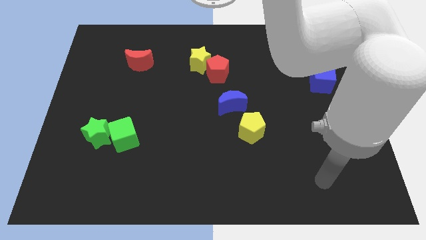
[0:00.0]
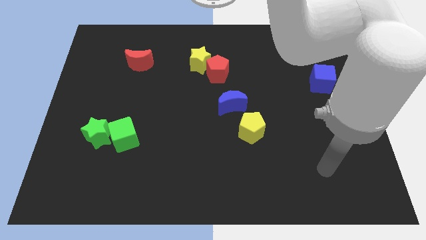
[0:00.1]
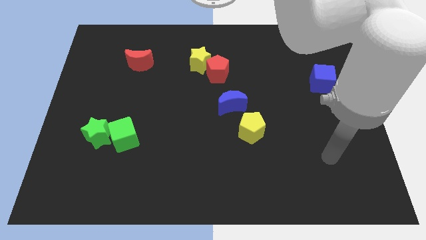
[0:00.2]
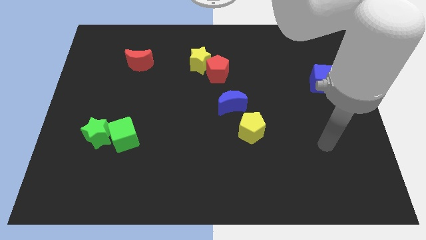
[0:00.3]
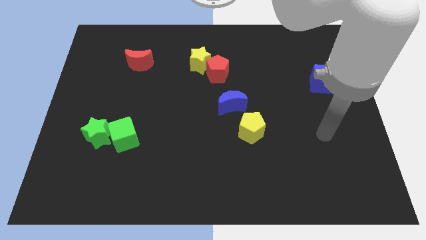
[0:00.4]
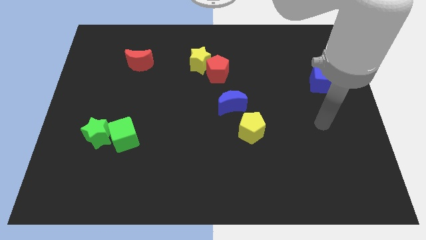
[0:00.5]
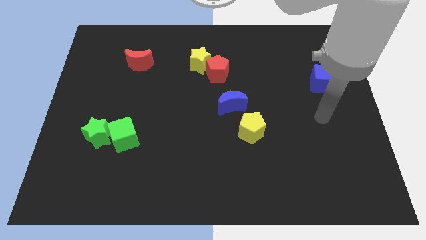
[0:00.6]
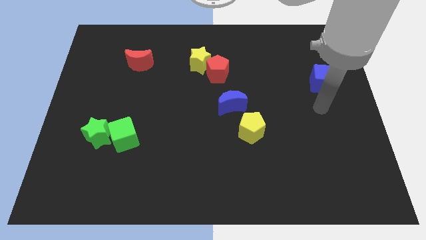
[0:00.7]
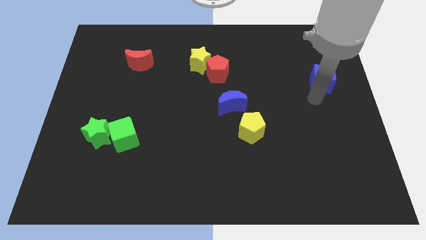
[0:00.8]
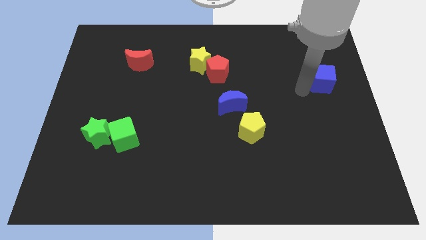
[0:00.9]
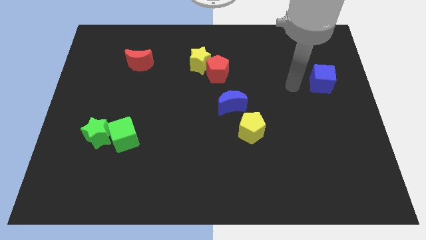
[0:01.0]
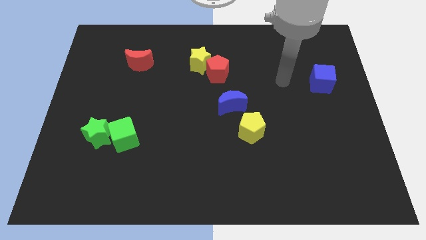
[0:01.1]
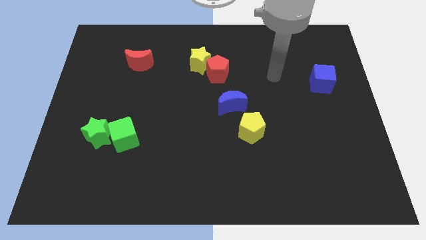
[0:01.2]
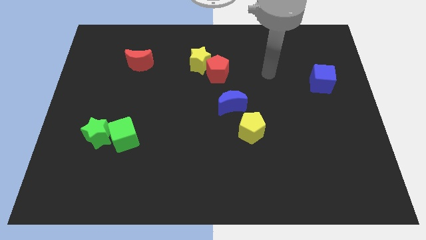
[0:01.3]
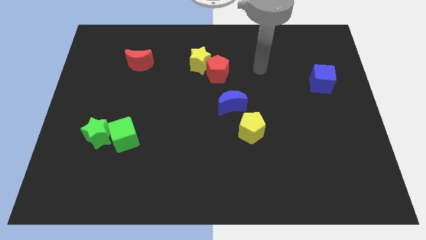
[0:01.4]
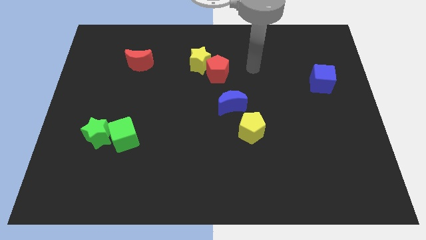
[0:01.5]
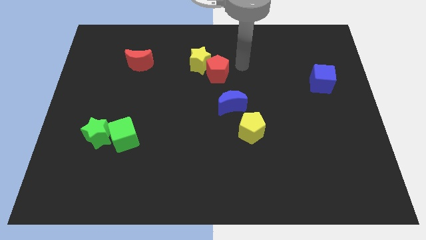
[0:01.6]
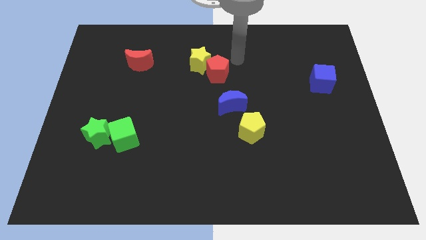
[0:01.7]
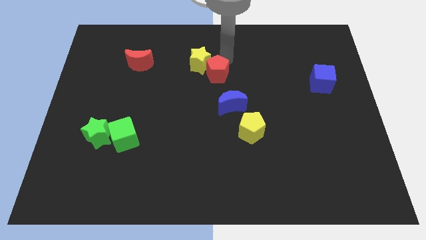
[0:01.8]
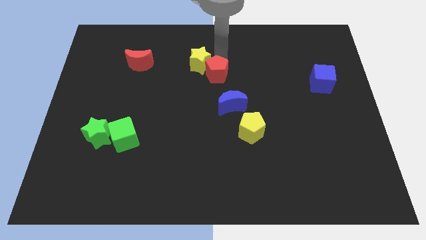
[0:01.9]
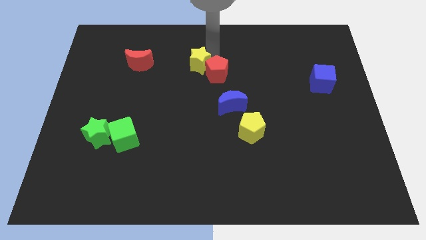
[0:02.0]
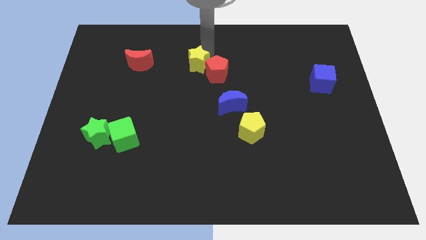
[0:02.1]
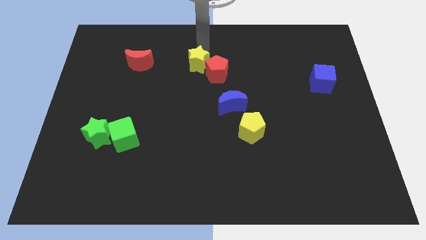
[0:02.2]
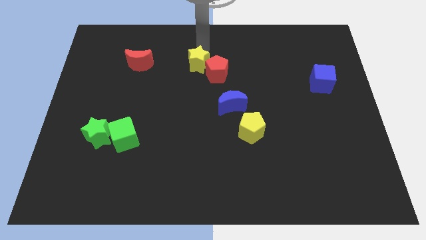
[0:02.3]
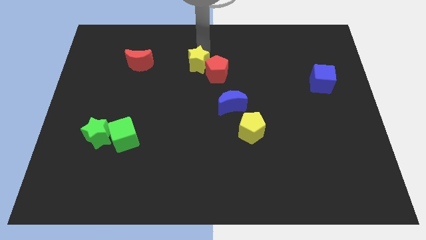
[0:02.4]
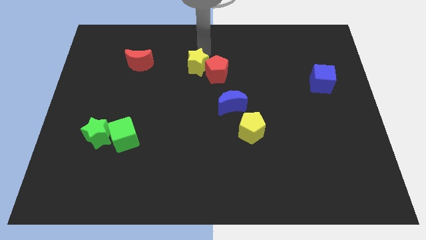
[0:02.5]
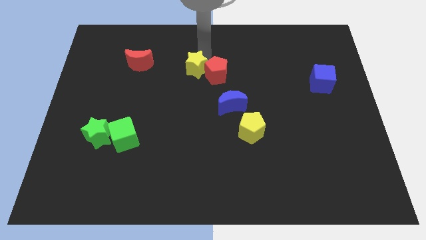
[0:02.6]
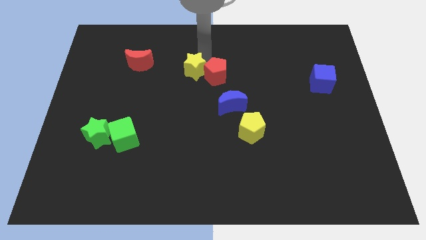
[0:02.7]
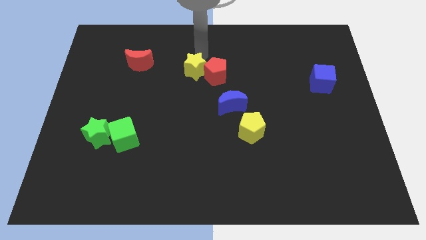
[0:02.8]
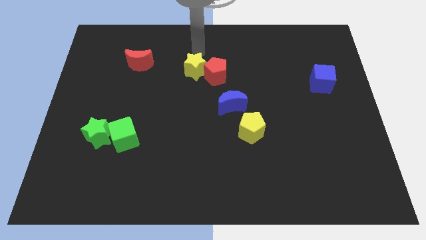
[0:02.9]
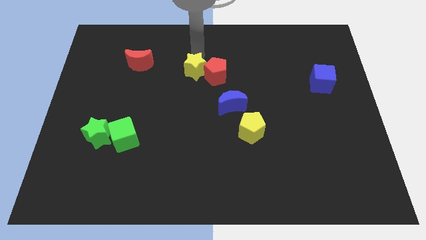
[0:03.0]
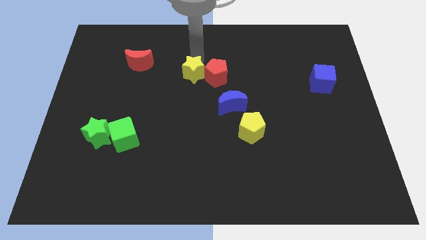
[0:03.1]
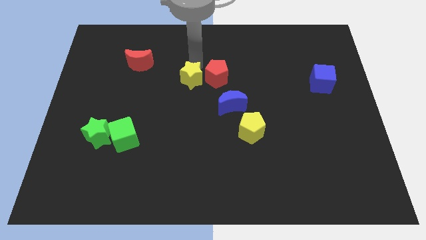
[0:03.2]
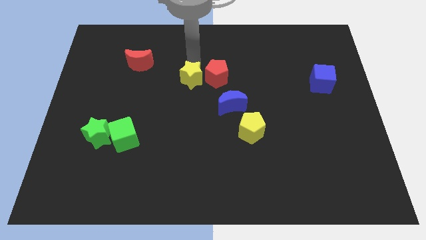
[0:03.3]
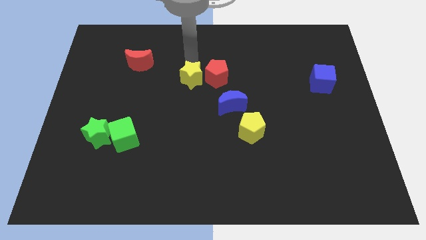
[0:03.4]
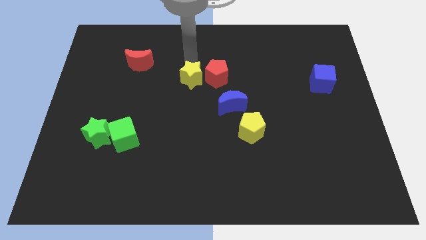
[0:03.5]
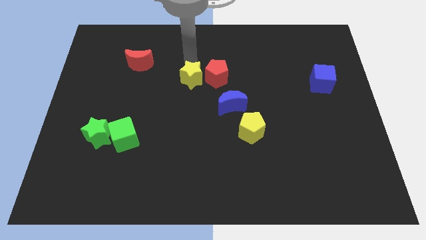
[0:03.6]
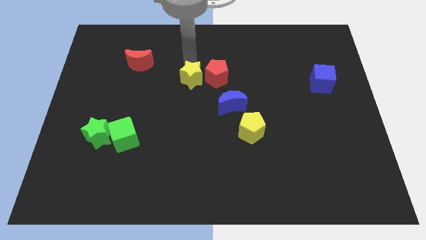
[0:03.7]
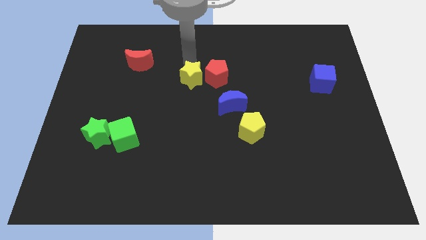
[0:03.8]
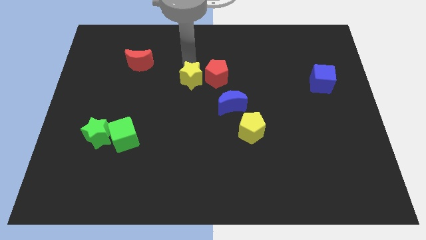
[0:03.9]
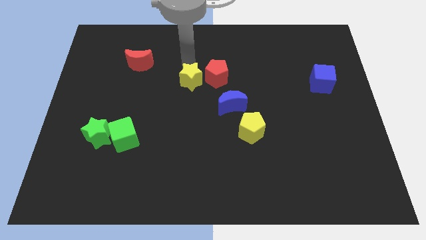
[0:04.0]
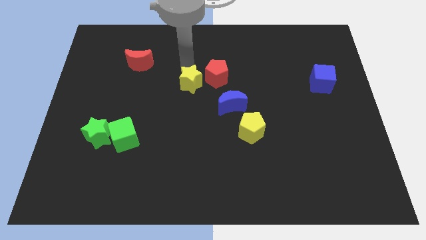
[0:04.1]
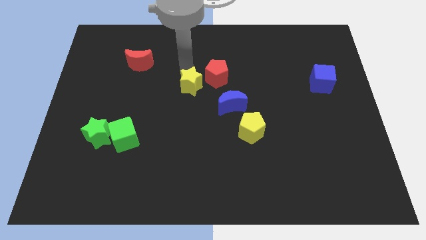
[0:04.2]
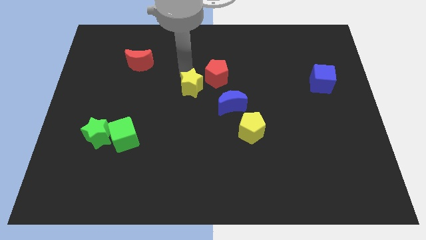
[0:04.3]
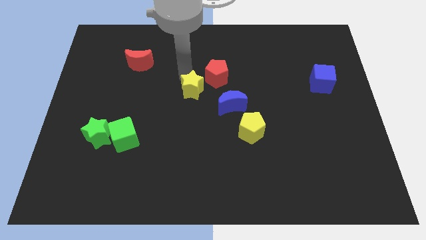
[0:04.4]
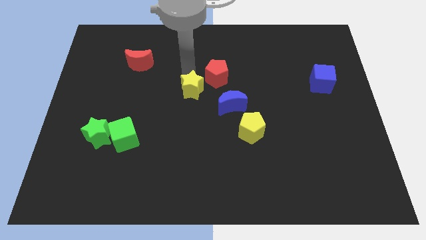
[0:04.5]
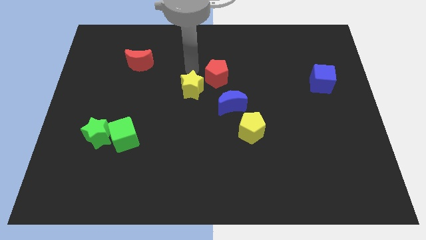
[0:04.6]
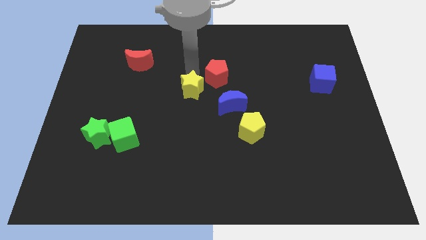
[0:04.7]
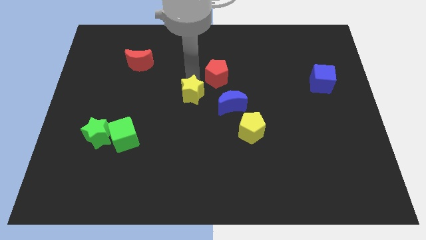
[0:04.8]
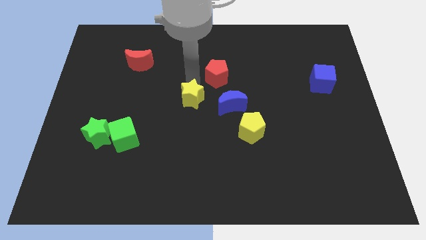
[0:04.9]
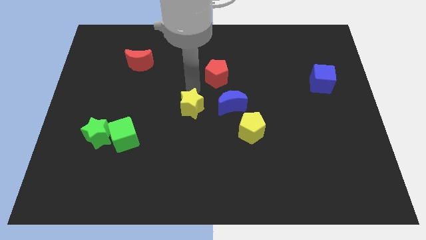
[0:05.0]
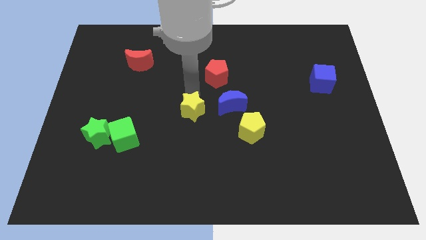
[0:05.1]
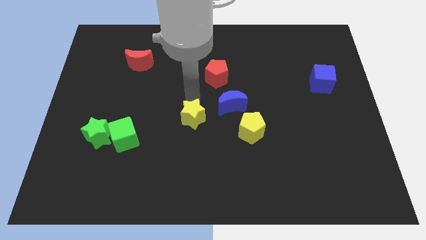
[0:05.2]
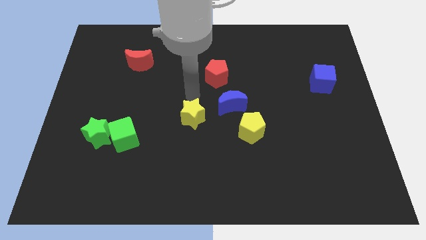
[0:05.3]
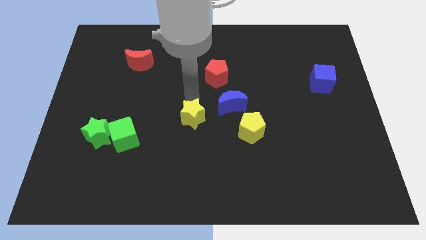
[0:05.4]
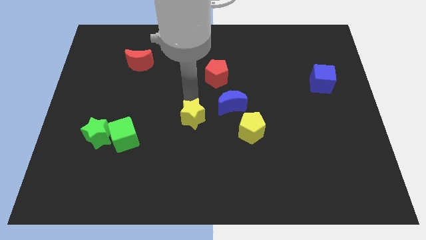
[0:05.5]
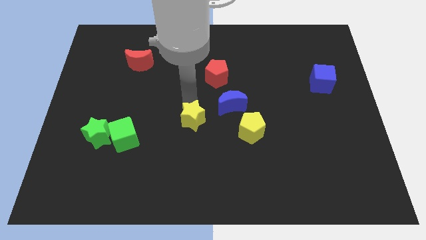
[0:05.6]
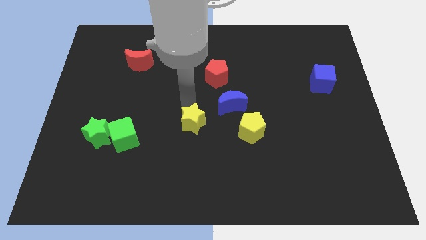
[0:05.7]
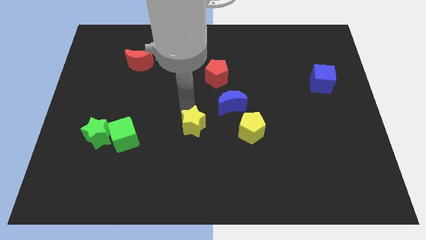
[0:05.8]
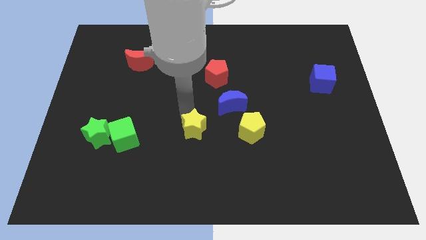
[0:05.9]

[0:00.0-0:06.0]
slide the yellow star downwards

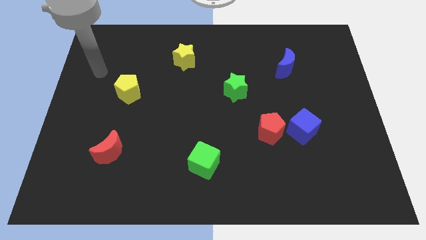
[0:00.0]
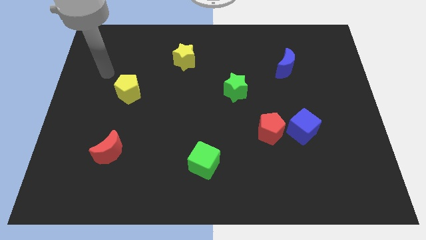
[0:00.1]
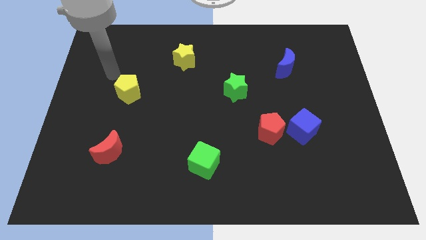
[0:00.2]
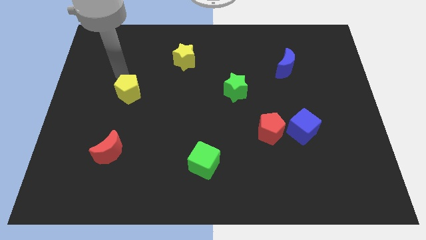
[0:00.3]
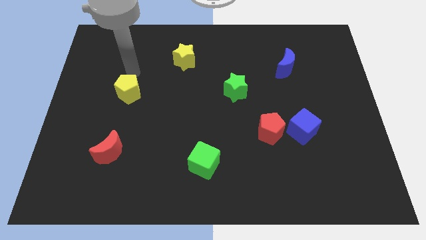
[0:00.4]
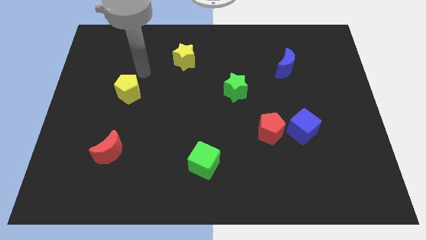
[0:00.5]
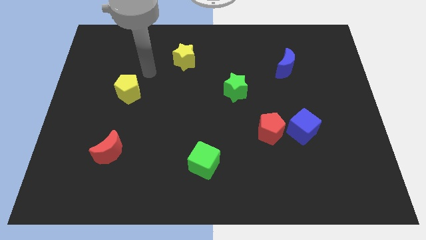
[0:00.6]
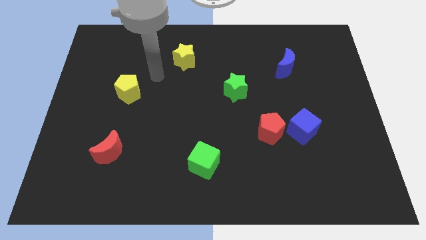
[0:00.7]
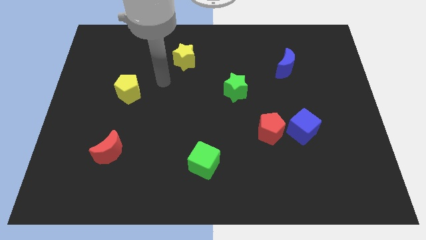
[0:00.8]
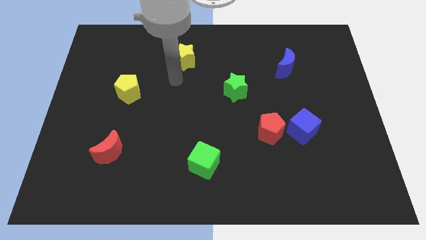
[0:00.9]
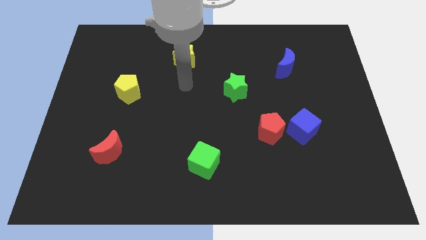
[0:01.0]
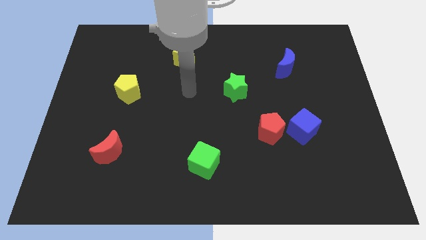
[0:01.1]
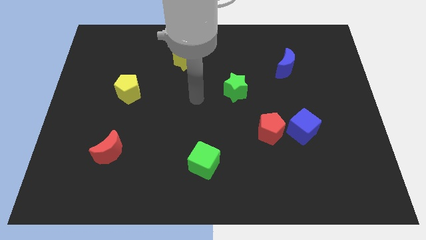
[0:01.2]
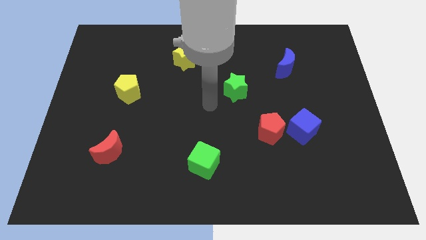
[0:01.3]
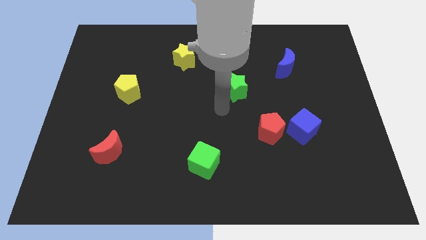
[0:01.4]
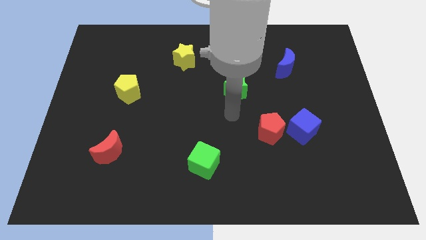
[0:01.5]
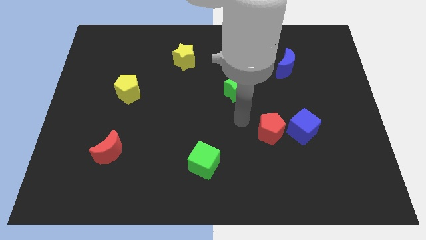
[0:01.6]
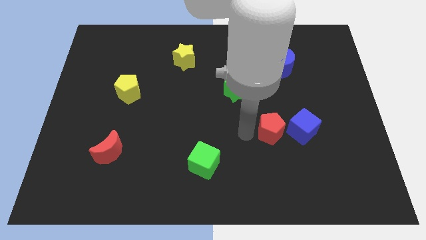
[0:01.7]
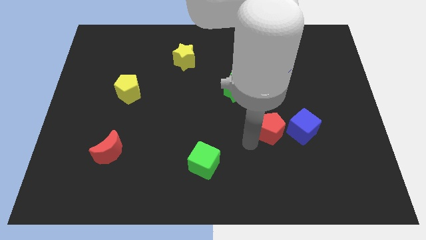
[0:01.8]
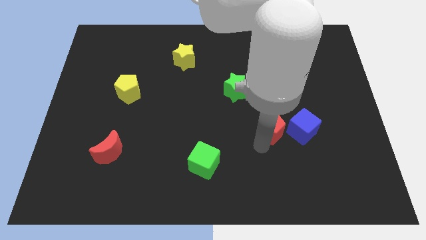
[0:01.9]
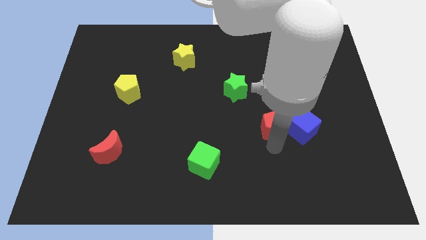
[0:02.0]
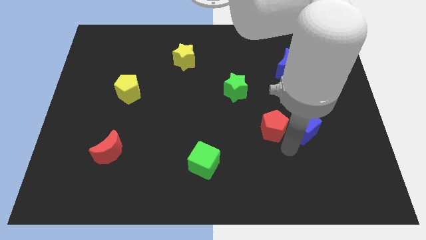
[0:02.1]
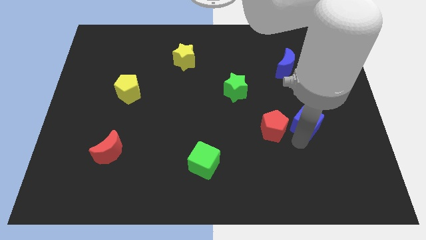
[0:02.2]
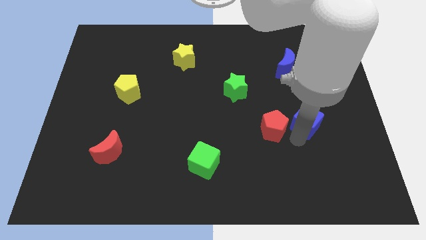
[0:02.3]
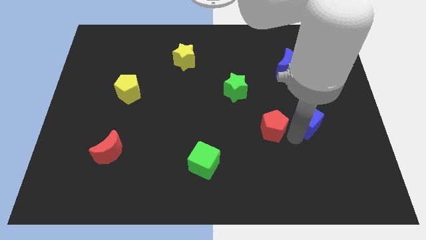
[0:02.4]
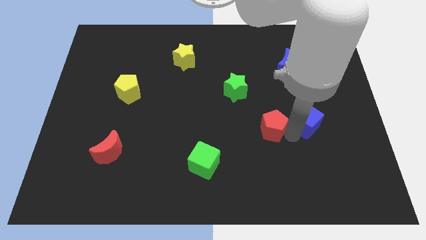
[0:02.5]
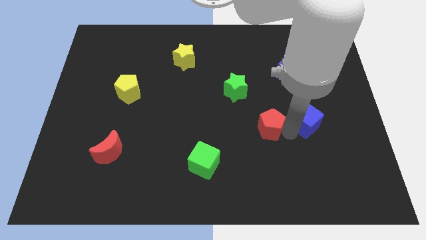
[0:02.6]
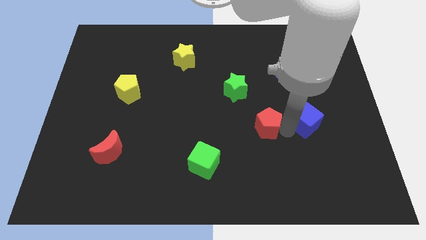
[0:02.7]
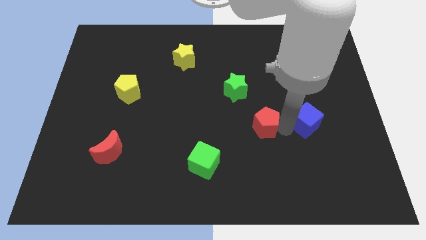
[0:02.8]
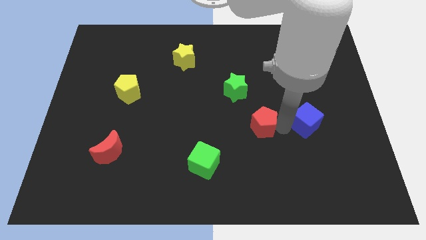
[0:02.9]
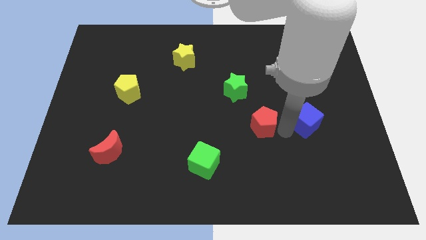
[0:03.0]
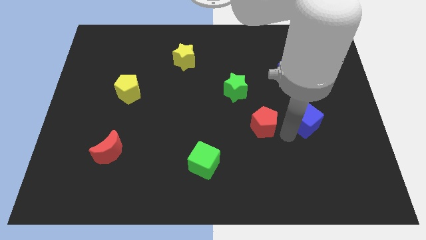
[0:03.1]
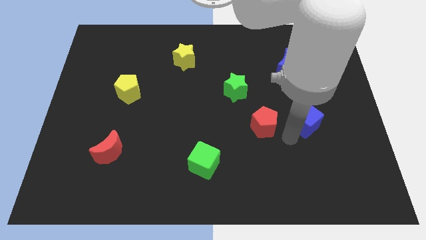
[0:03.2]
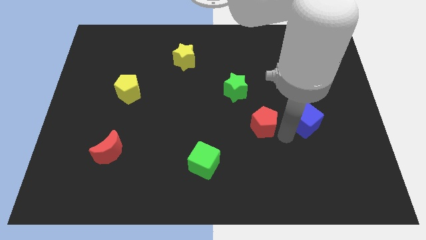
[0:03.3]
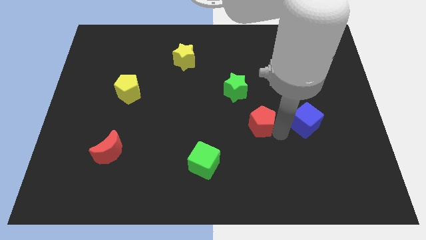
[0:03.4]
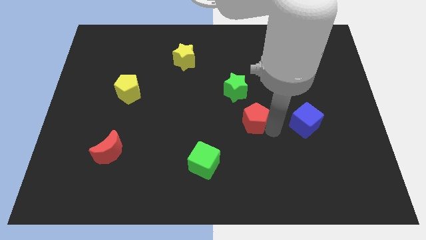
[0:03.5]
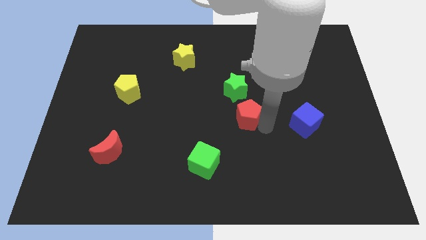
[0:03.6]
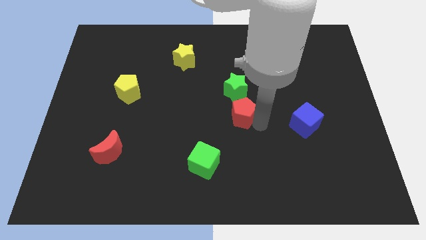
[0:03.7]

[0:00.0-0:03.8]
slightly slide the red pentagon diagonally up and left
